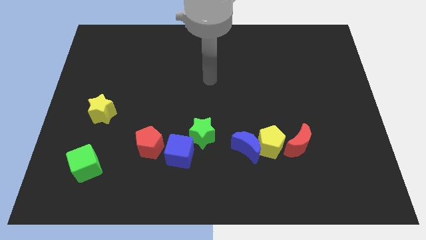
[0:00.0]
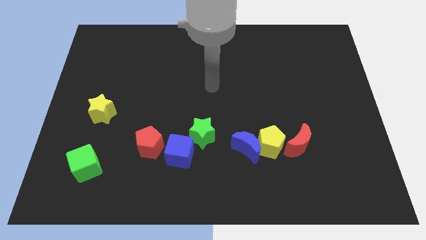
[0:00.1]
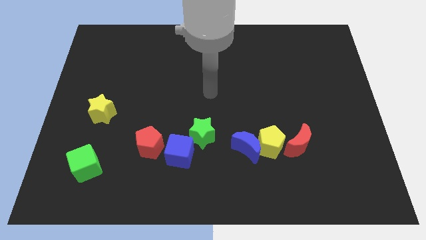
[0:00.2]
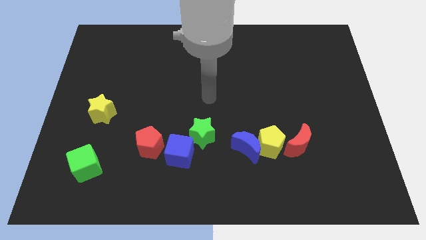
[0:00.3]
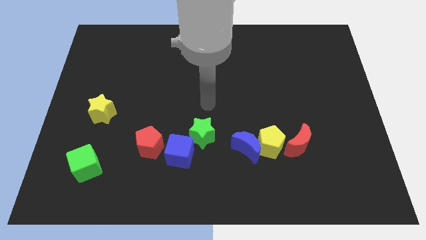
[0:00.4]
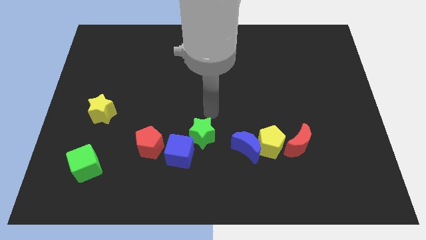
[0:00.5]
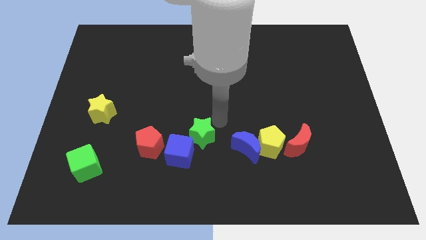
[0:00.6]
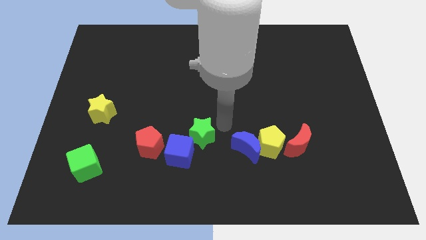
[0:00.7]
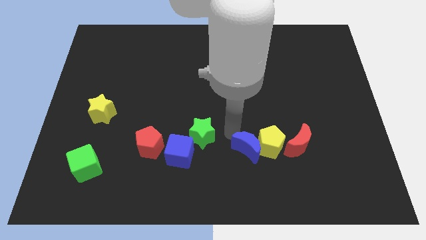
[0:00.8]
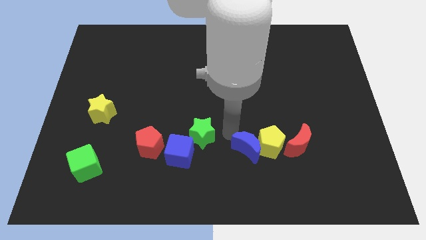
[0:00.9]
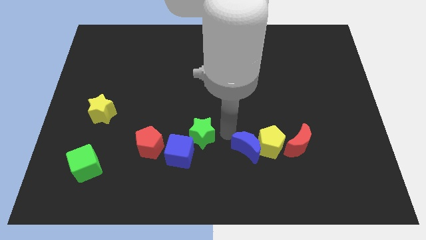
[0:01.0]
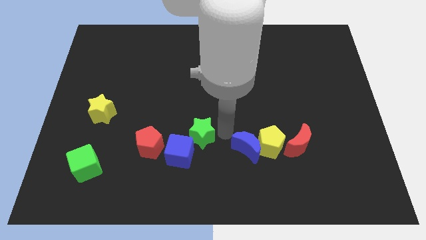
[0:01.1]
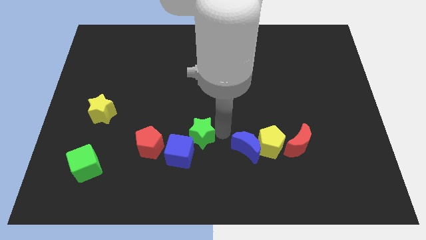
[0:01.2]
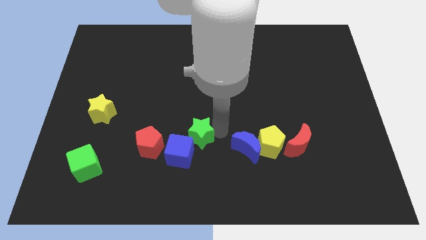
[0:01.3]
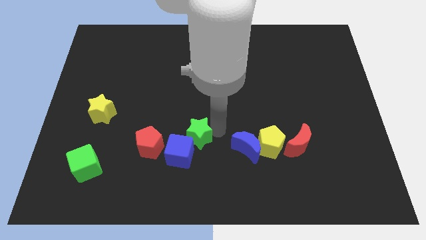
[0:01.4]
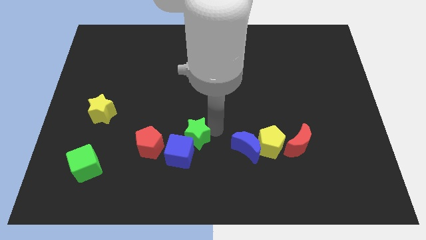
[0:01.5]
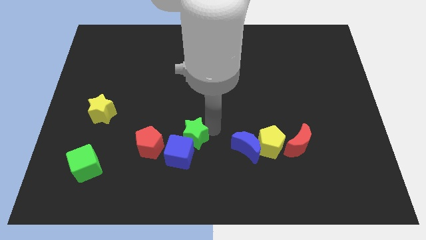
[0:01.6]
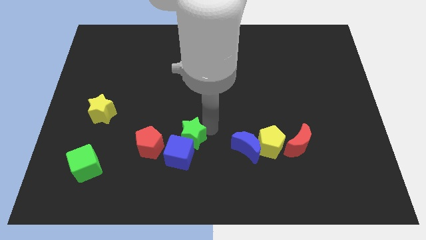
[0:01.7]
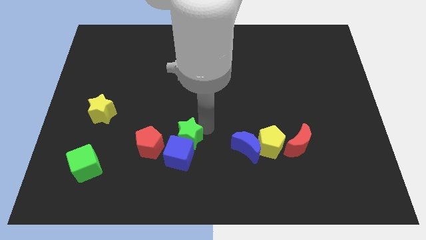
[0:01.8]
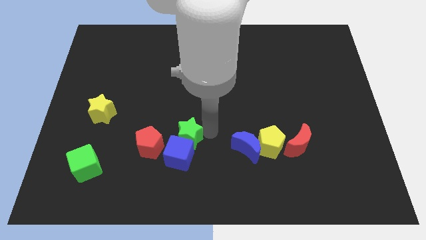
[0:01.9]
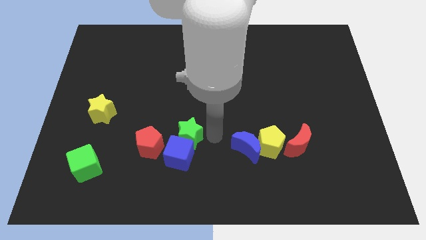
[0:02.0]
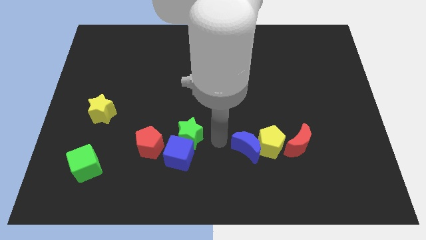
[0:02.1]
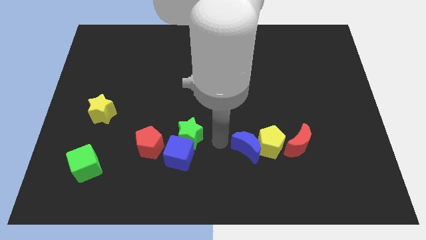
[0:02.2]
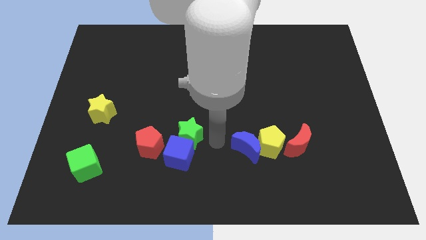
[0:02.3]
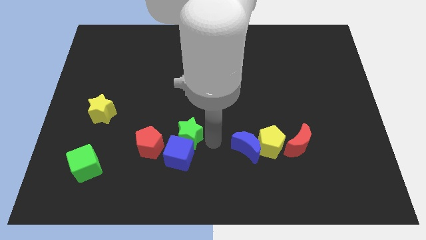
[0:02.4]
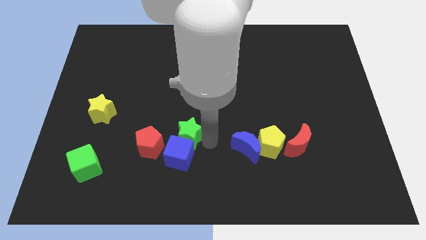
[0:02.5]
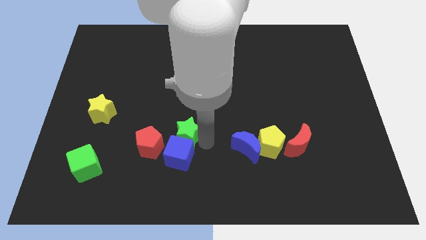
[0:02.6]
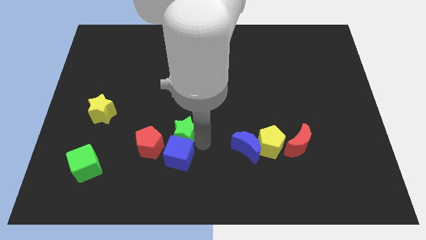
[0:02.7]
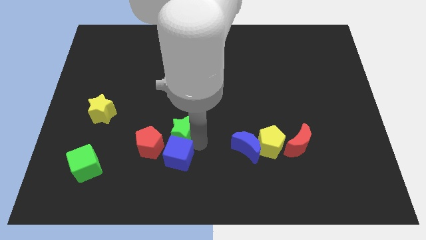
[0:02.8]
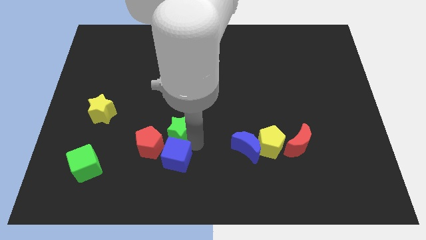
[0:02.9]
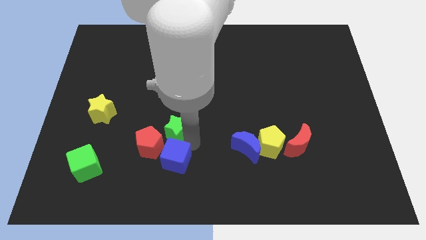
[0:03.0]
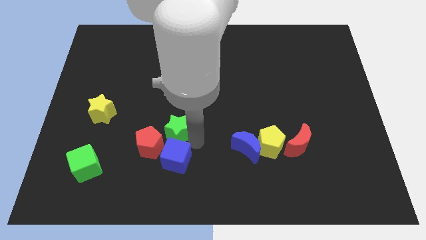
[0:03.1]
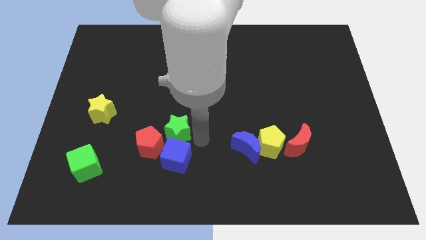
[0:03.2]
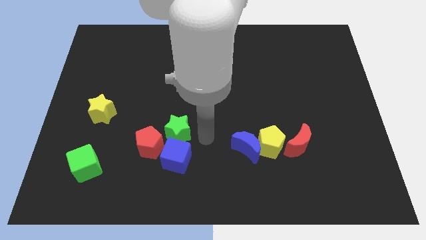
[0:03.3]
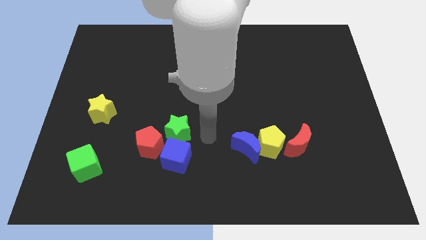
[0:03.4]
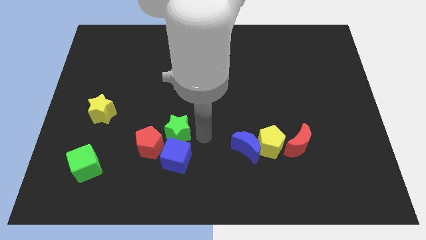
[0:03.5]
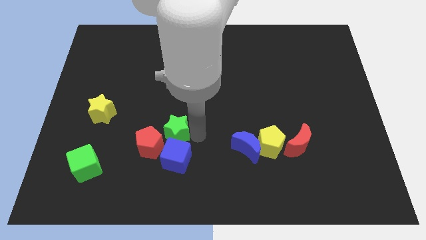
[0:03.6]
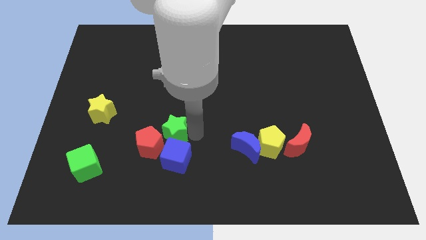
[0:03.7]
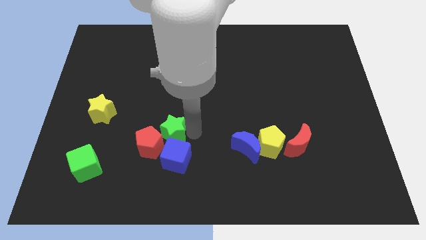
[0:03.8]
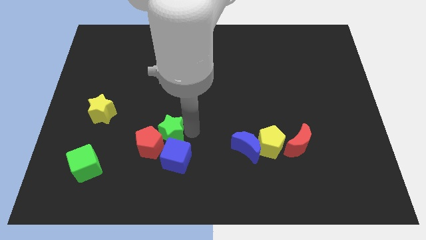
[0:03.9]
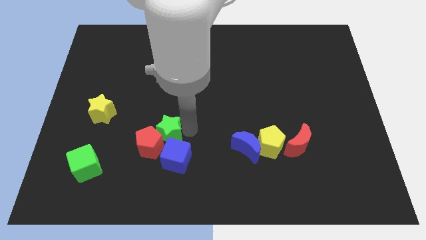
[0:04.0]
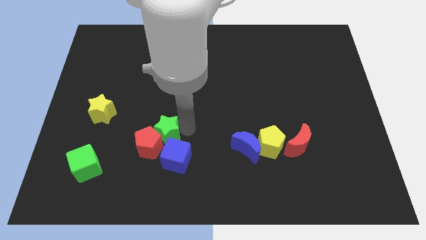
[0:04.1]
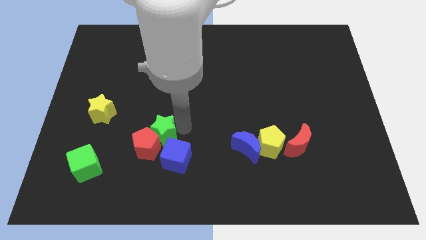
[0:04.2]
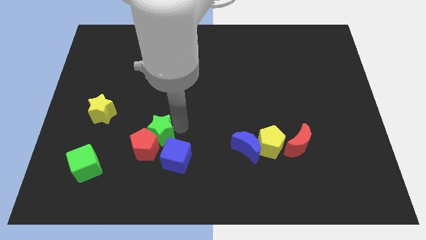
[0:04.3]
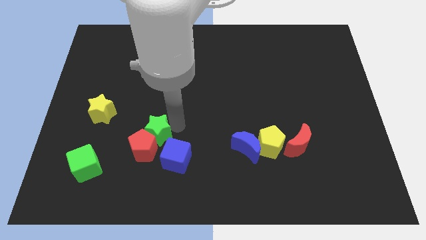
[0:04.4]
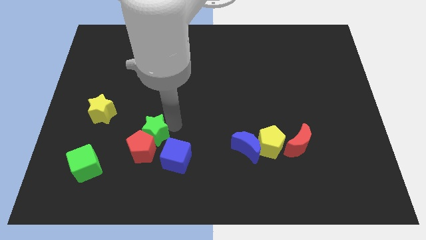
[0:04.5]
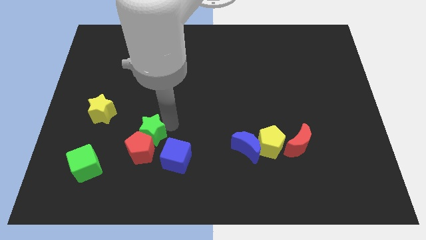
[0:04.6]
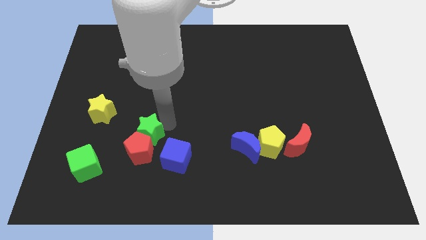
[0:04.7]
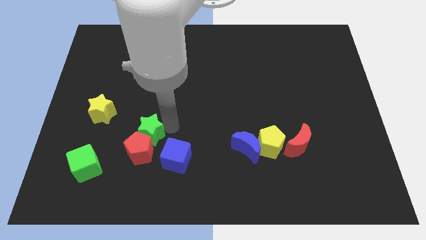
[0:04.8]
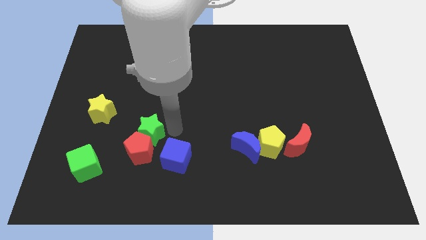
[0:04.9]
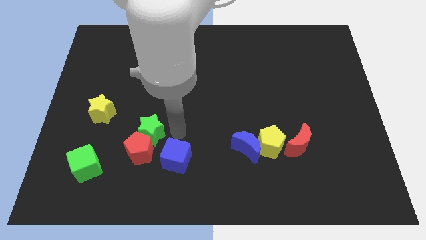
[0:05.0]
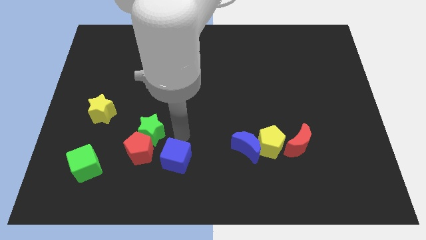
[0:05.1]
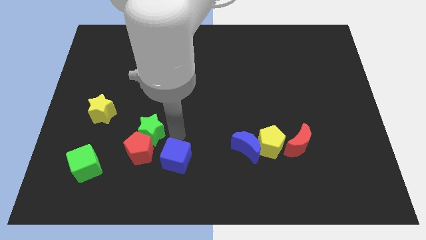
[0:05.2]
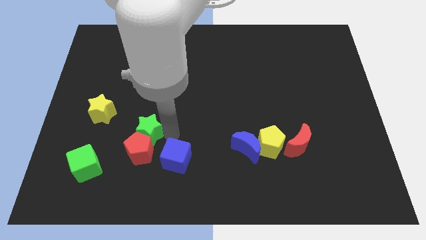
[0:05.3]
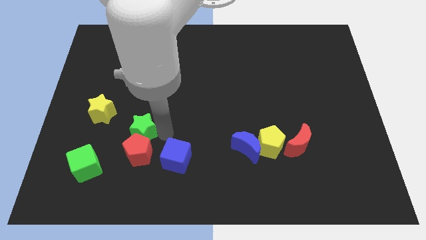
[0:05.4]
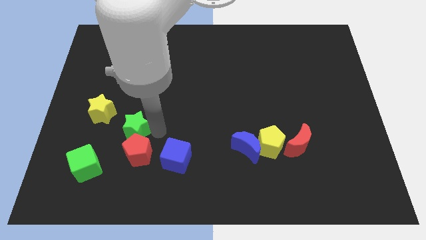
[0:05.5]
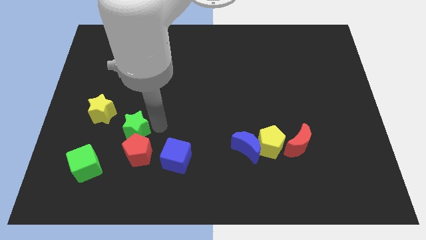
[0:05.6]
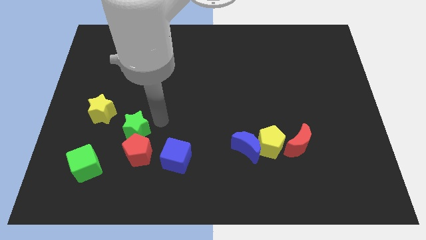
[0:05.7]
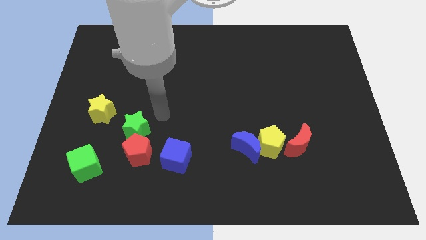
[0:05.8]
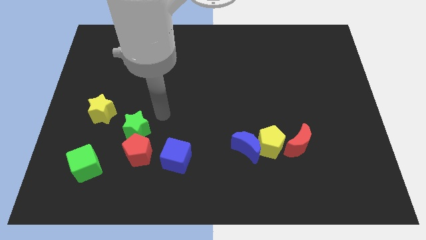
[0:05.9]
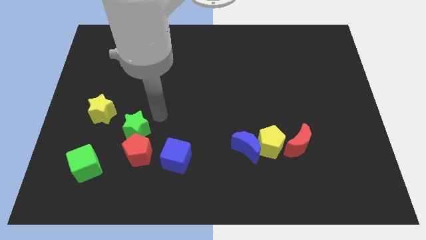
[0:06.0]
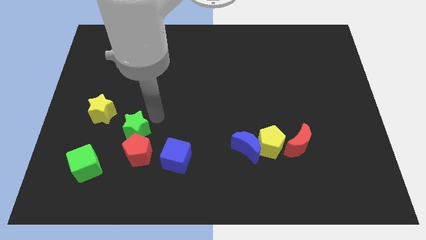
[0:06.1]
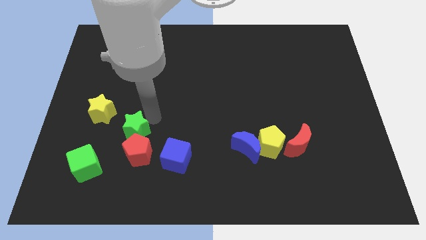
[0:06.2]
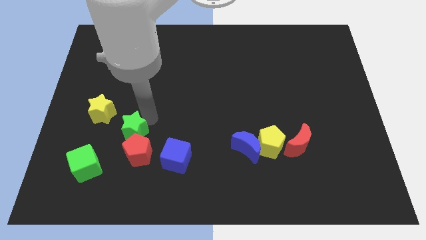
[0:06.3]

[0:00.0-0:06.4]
move the green star to the top right of the green cube
